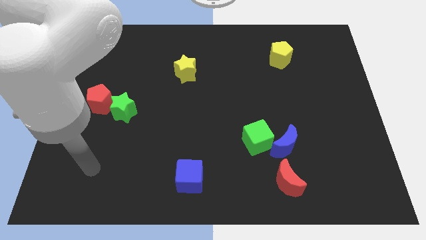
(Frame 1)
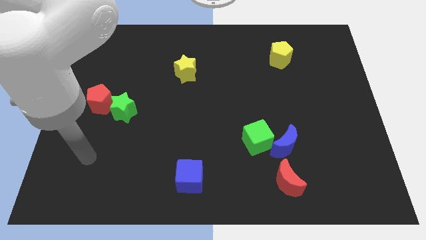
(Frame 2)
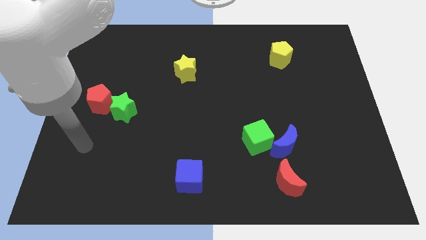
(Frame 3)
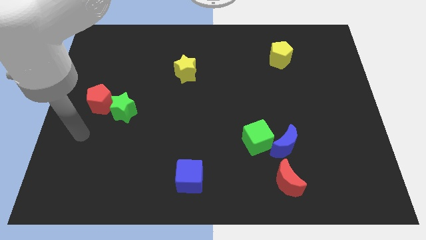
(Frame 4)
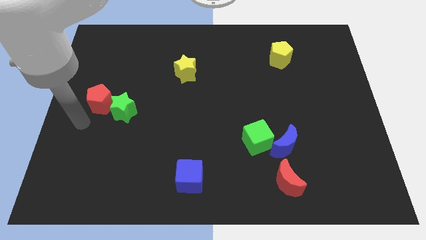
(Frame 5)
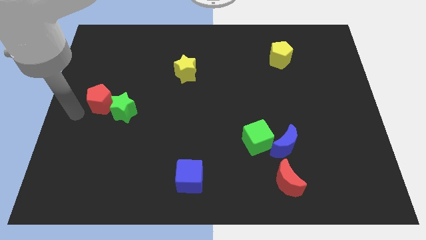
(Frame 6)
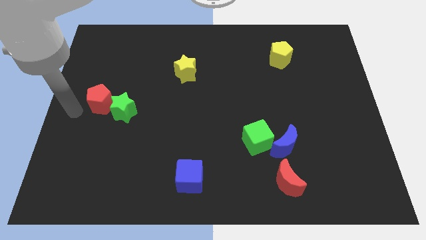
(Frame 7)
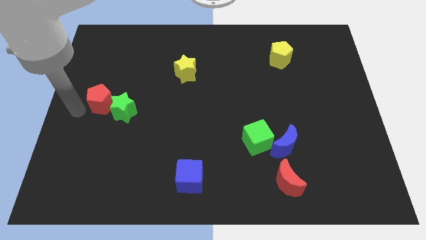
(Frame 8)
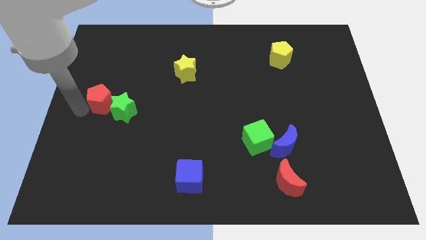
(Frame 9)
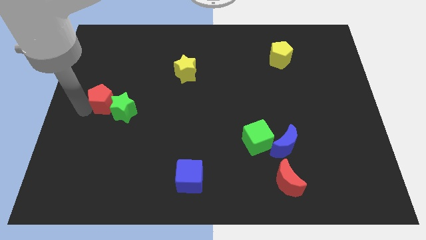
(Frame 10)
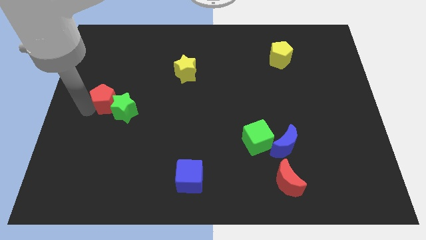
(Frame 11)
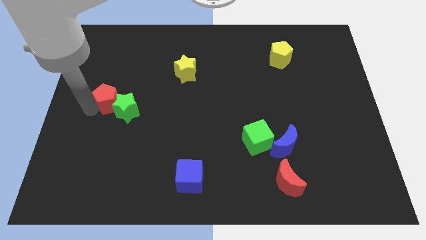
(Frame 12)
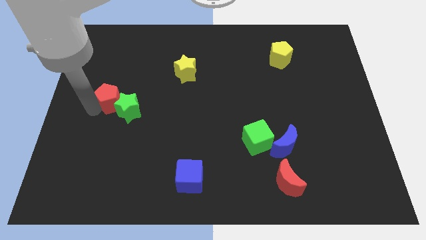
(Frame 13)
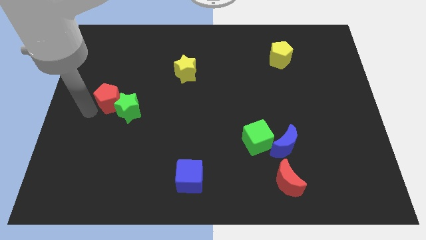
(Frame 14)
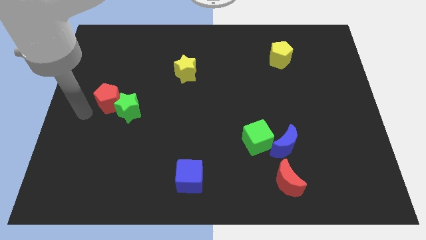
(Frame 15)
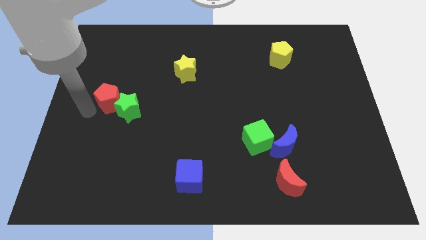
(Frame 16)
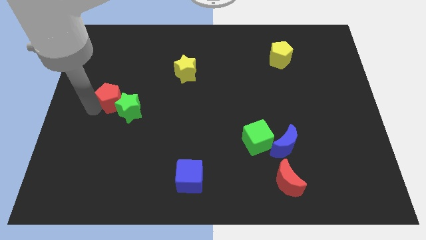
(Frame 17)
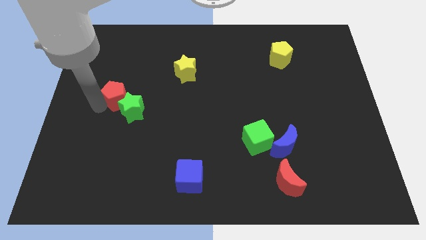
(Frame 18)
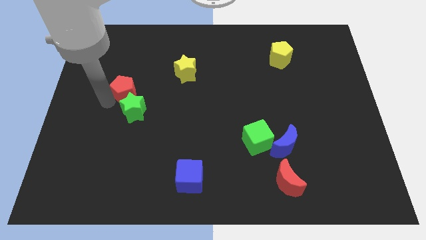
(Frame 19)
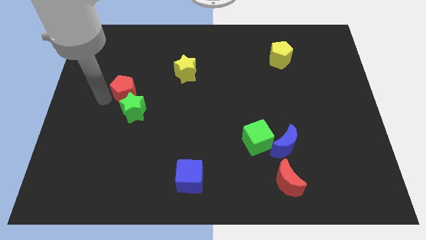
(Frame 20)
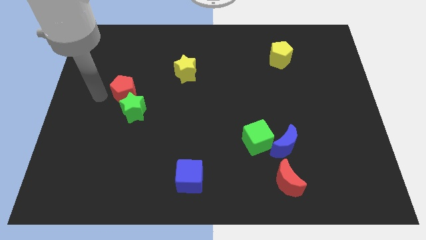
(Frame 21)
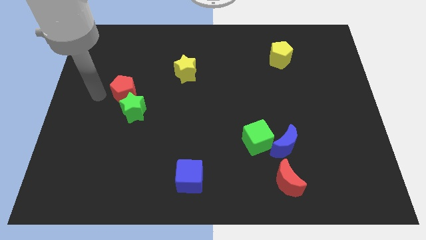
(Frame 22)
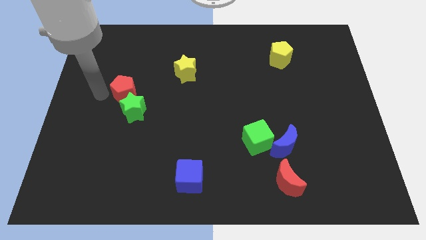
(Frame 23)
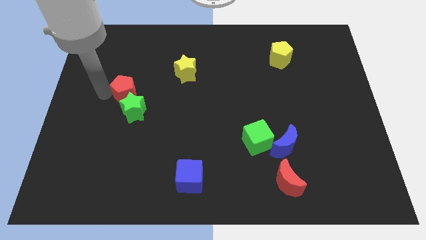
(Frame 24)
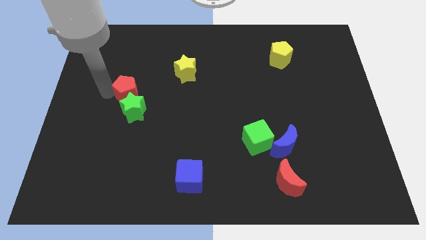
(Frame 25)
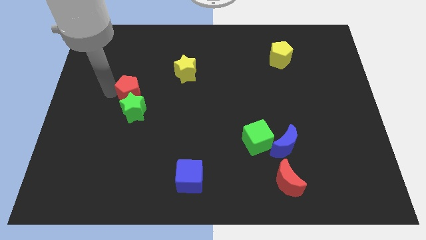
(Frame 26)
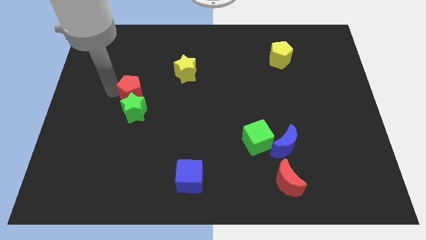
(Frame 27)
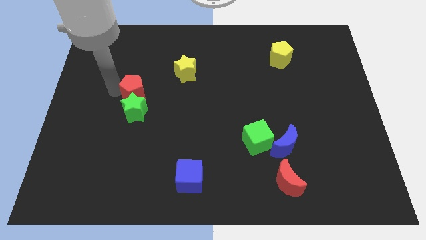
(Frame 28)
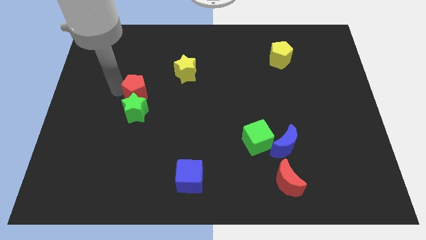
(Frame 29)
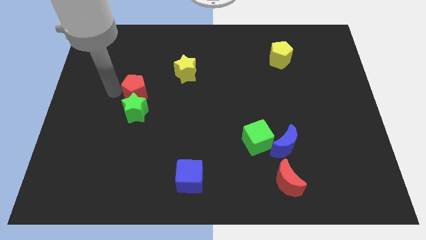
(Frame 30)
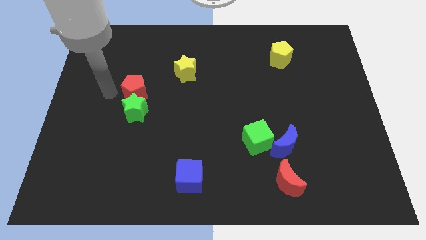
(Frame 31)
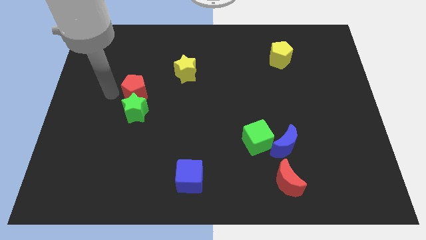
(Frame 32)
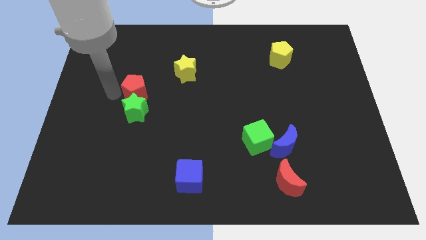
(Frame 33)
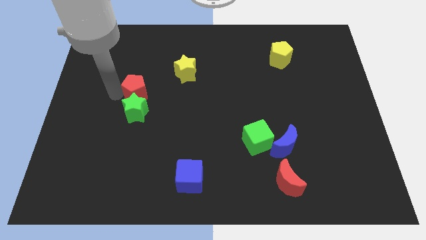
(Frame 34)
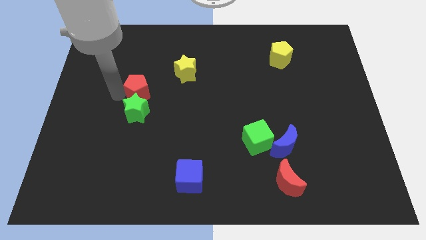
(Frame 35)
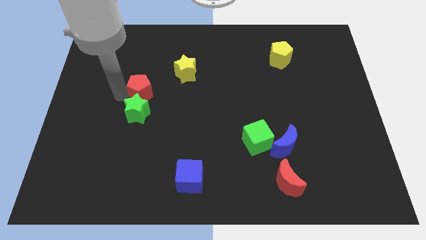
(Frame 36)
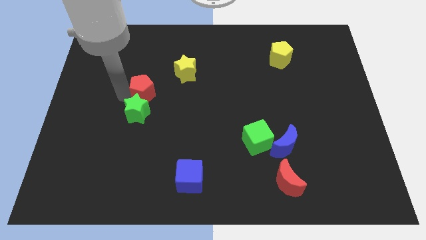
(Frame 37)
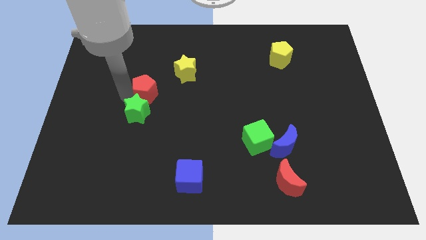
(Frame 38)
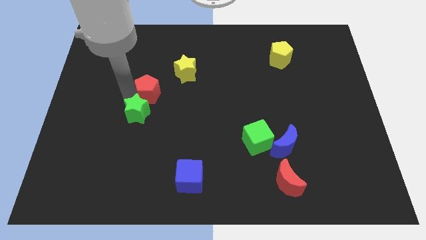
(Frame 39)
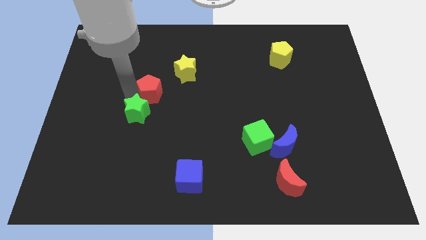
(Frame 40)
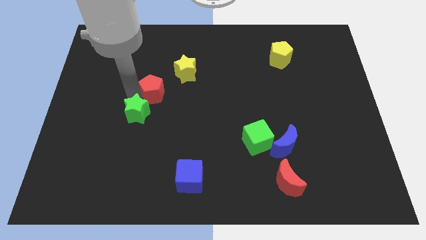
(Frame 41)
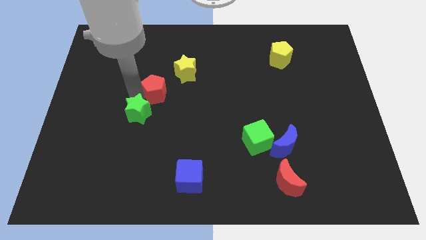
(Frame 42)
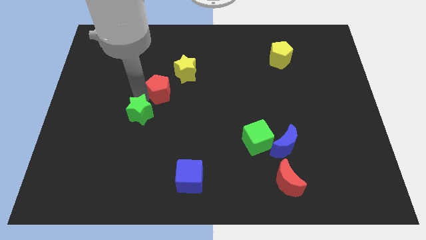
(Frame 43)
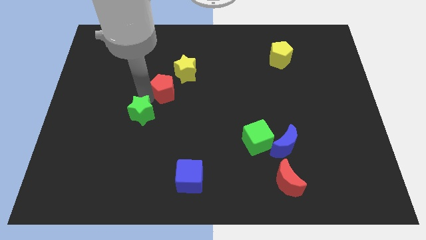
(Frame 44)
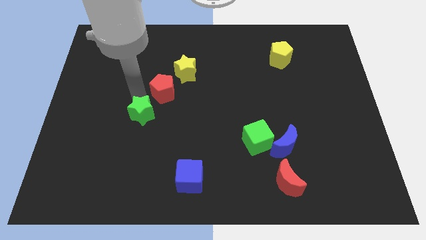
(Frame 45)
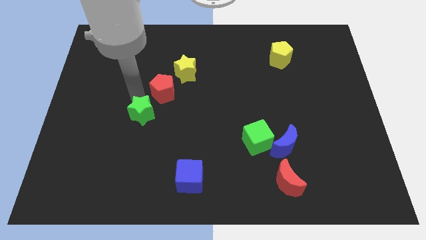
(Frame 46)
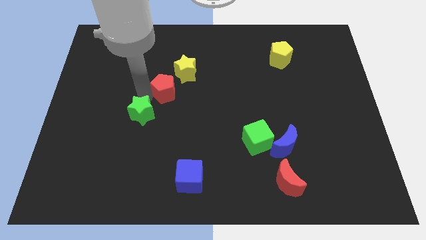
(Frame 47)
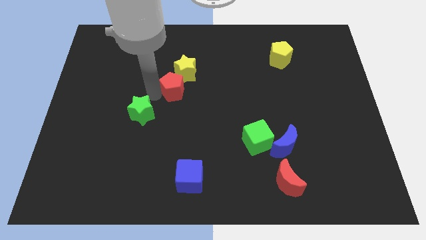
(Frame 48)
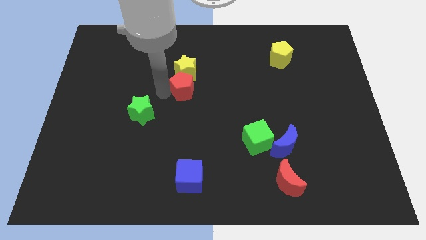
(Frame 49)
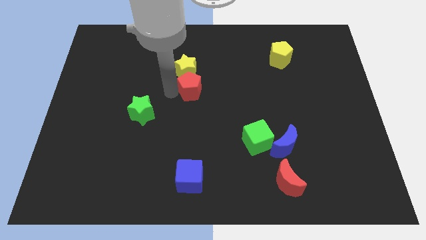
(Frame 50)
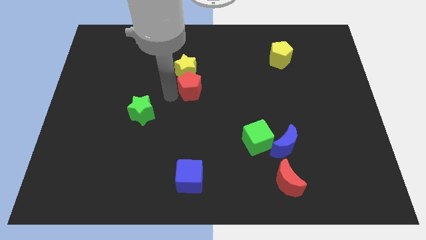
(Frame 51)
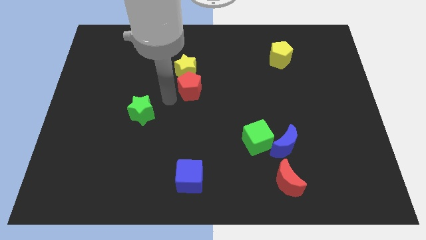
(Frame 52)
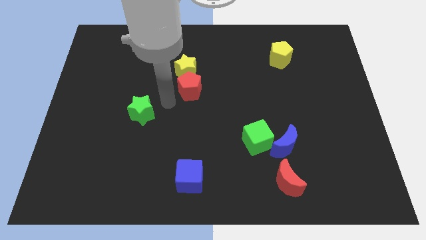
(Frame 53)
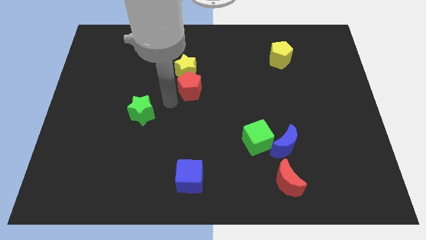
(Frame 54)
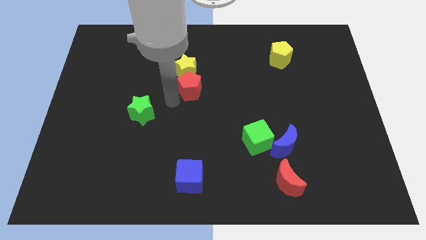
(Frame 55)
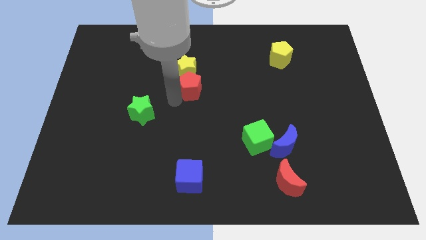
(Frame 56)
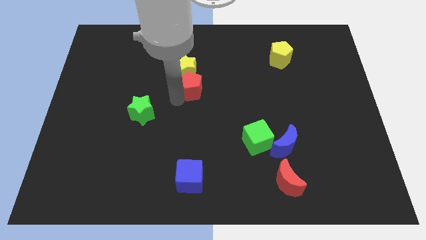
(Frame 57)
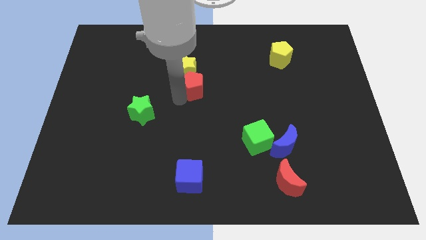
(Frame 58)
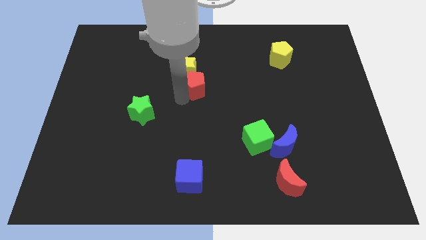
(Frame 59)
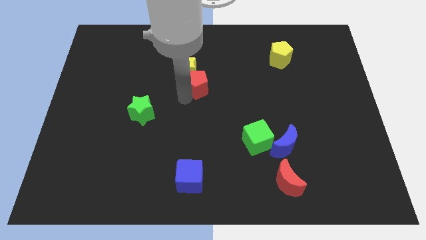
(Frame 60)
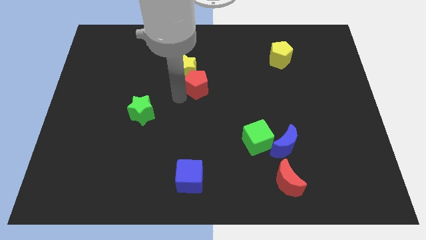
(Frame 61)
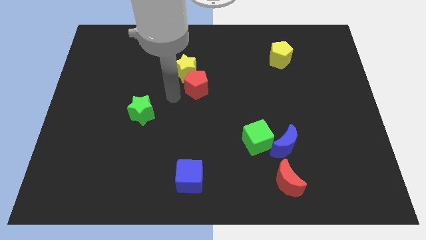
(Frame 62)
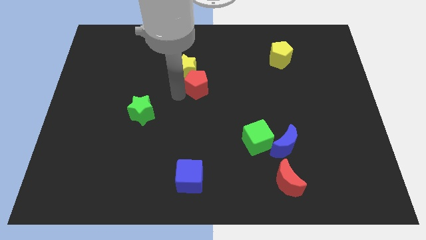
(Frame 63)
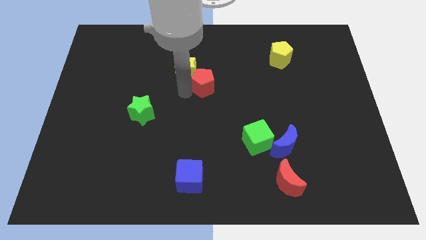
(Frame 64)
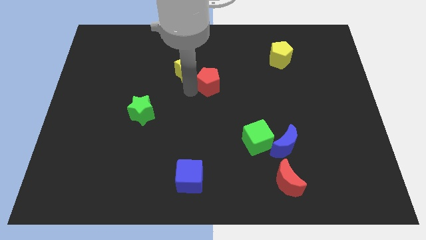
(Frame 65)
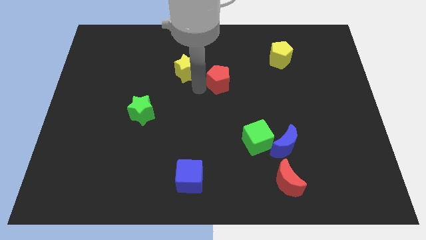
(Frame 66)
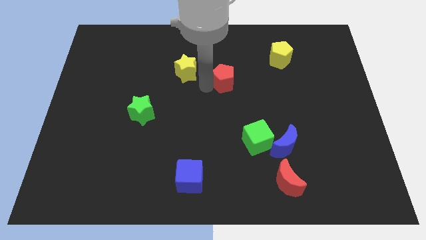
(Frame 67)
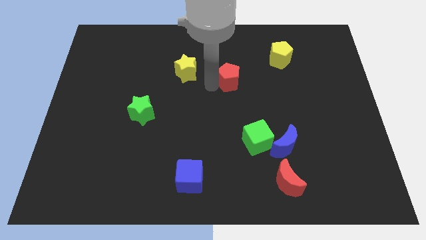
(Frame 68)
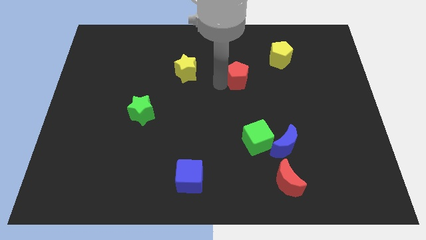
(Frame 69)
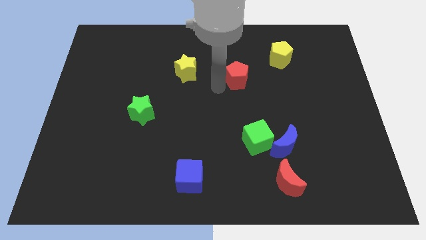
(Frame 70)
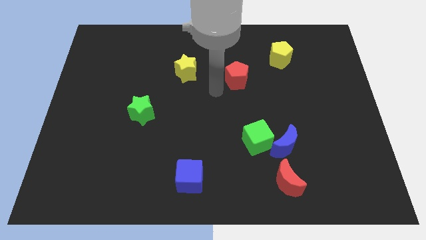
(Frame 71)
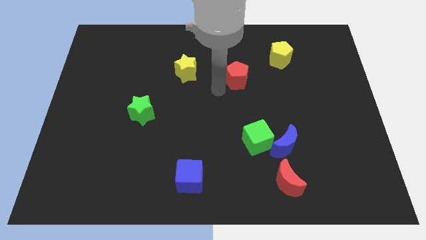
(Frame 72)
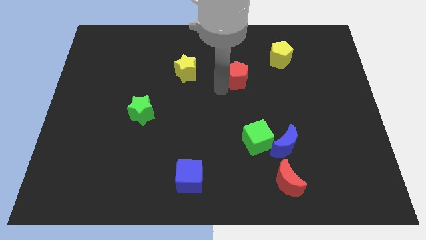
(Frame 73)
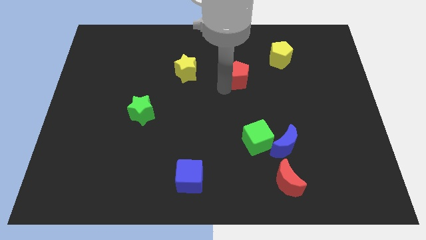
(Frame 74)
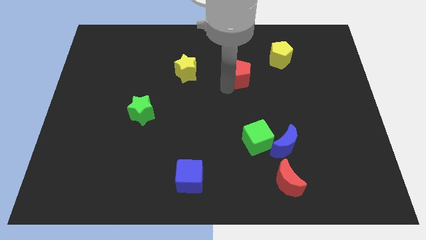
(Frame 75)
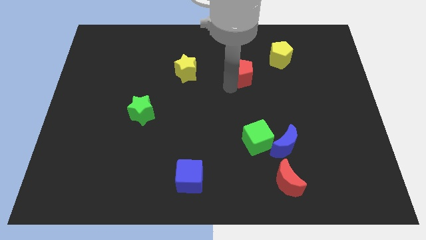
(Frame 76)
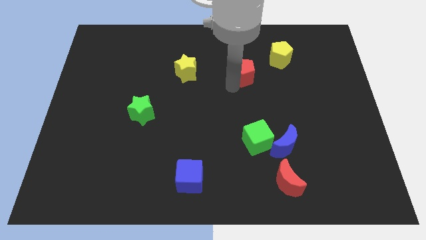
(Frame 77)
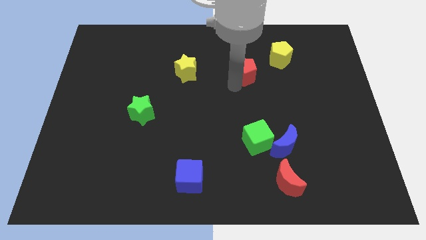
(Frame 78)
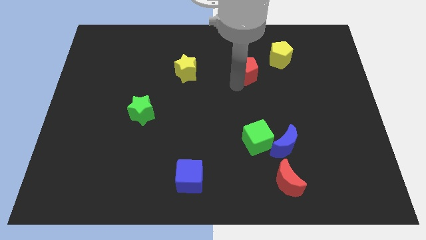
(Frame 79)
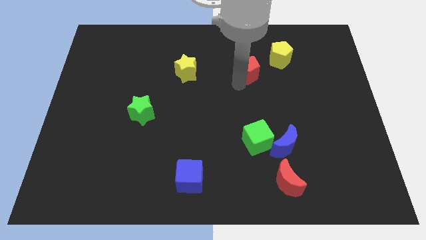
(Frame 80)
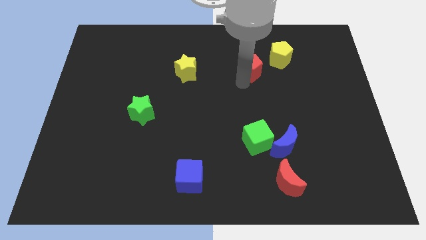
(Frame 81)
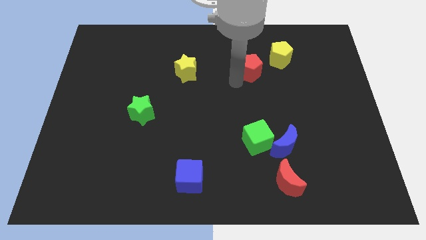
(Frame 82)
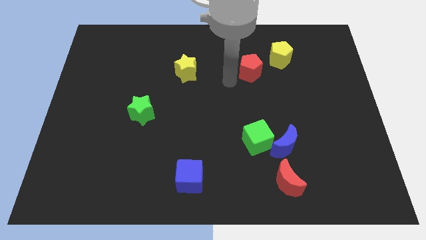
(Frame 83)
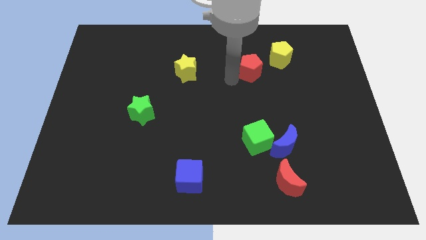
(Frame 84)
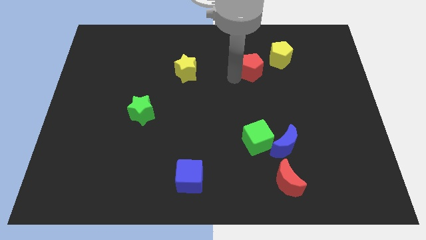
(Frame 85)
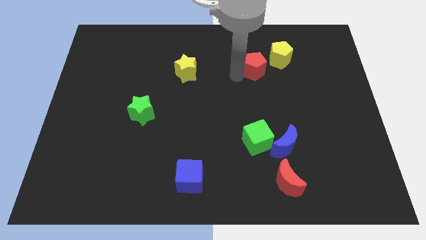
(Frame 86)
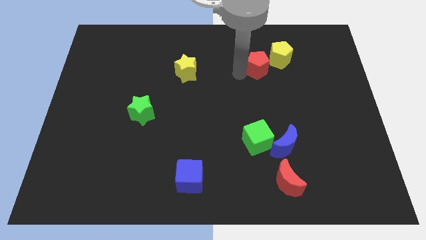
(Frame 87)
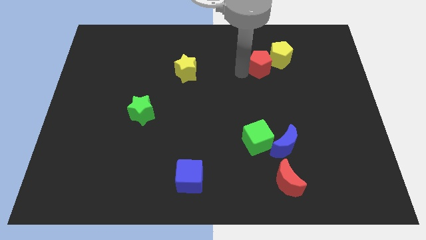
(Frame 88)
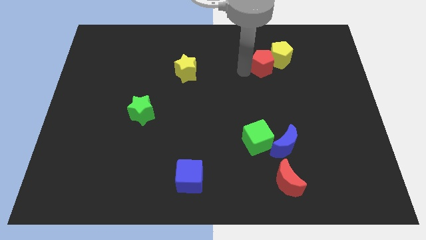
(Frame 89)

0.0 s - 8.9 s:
put the red pentagon close to the yellow pentagon
